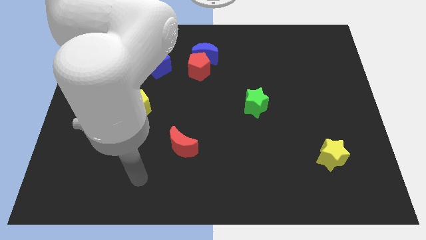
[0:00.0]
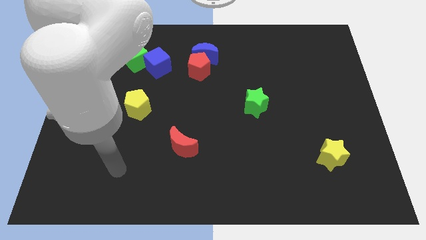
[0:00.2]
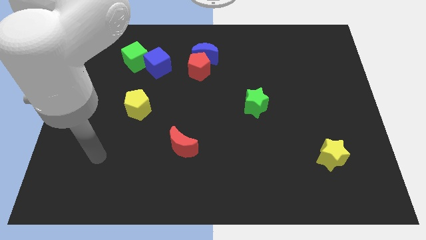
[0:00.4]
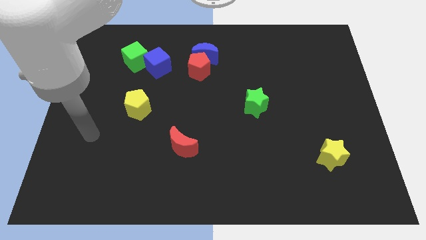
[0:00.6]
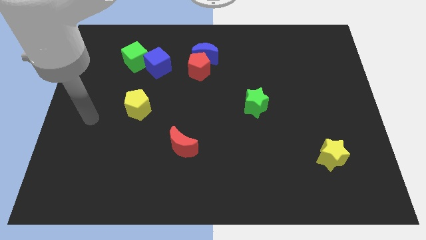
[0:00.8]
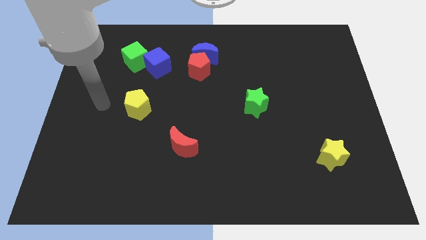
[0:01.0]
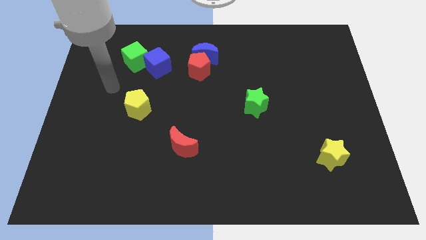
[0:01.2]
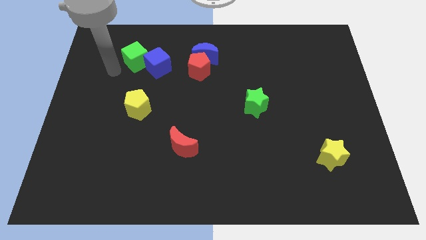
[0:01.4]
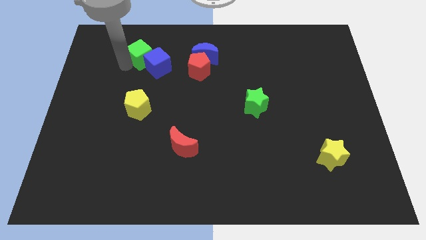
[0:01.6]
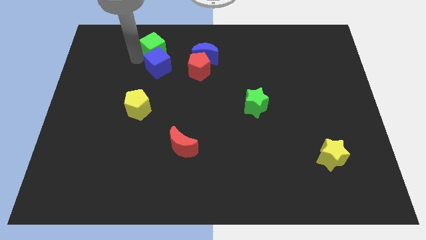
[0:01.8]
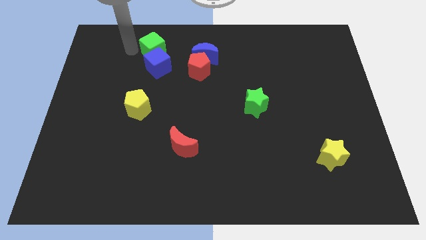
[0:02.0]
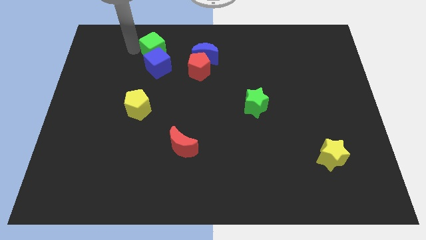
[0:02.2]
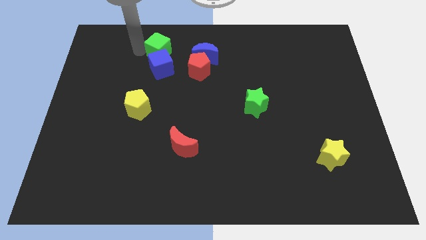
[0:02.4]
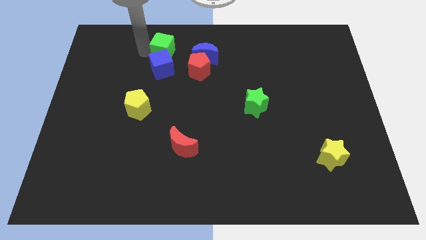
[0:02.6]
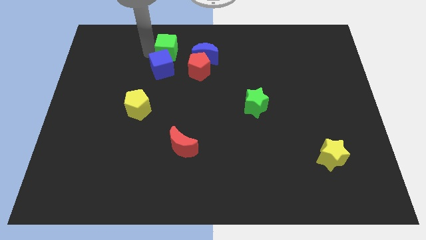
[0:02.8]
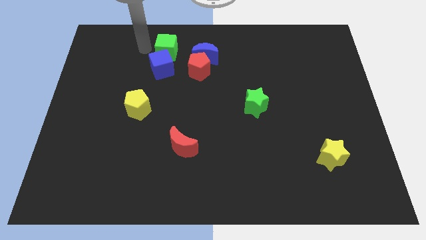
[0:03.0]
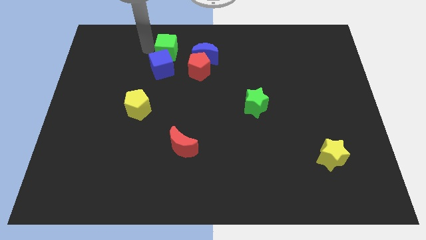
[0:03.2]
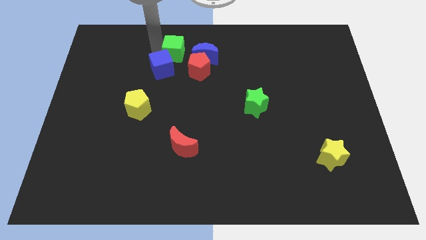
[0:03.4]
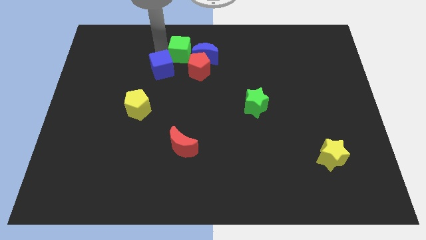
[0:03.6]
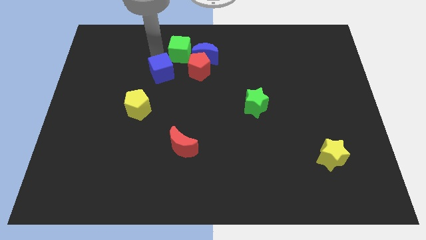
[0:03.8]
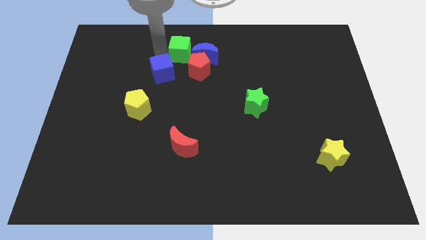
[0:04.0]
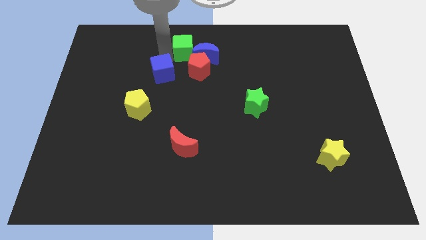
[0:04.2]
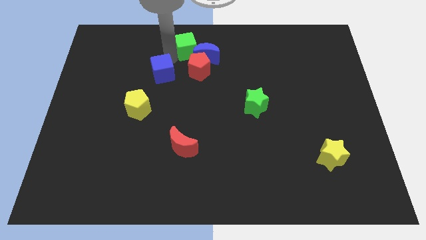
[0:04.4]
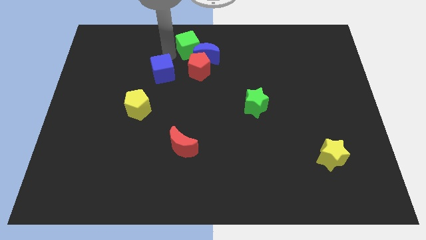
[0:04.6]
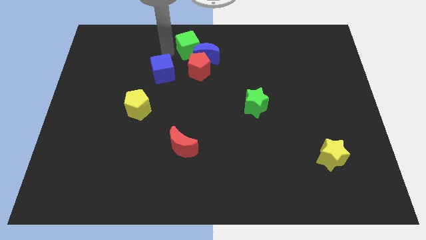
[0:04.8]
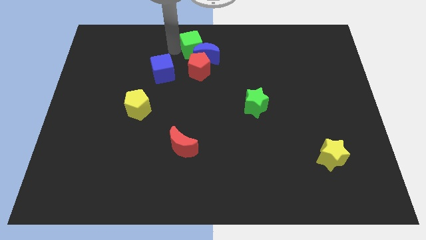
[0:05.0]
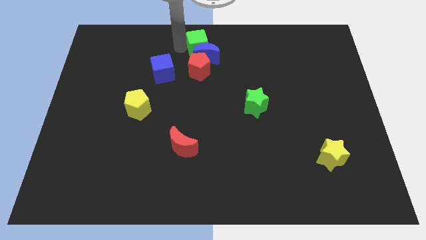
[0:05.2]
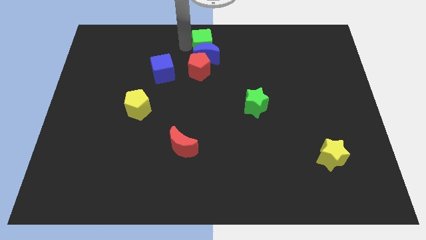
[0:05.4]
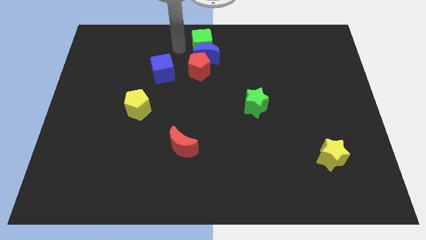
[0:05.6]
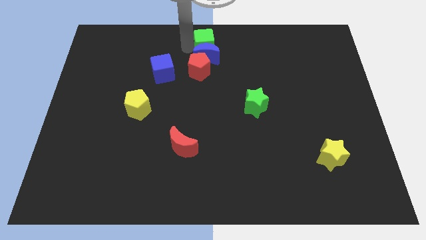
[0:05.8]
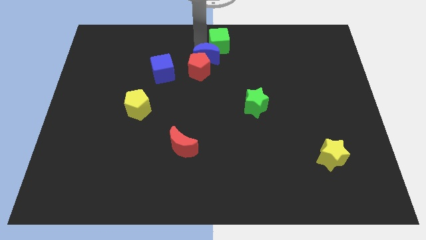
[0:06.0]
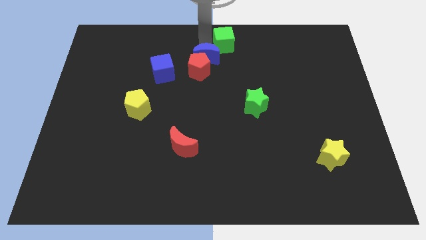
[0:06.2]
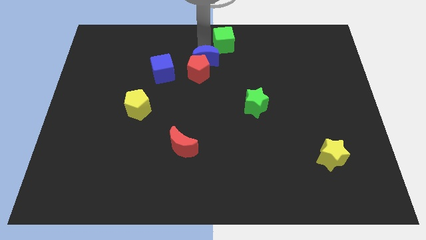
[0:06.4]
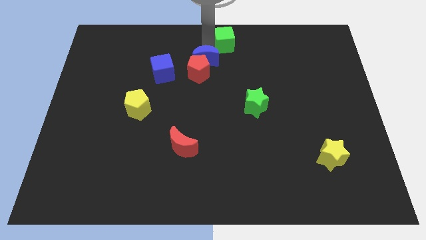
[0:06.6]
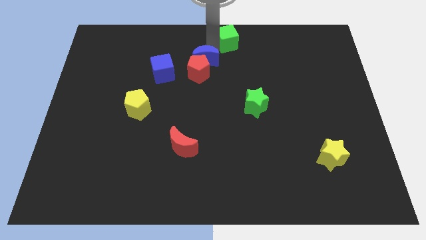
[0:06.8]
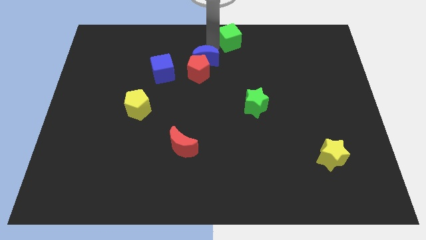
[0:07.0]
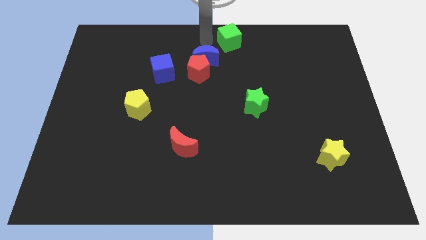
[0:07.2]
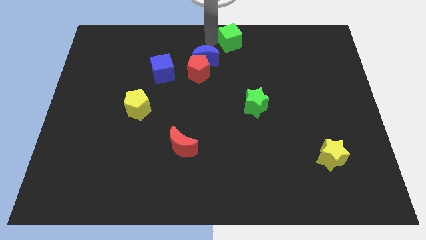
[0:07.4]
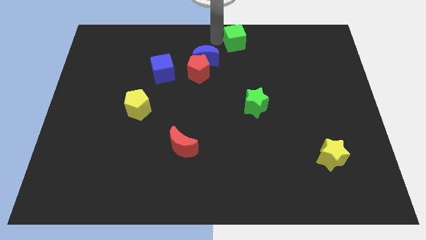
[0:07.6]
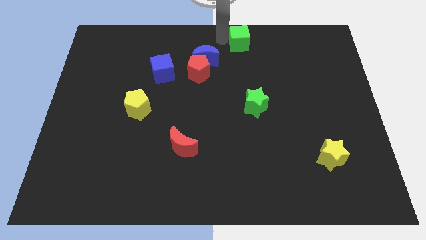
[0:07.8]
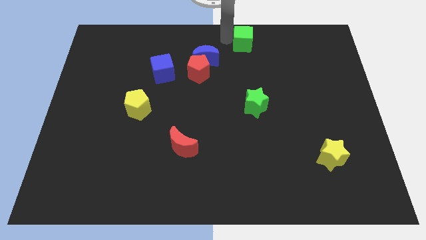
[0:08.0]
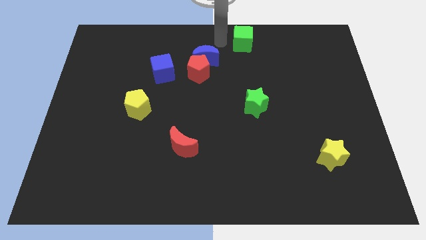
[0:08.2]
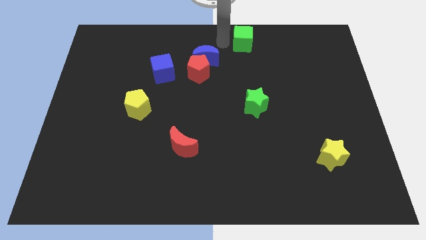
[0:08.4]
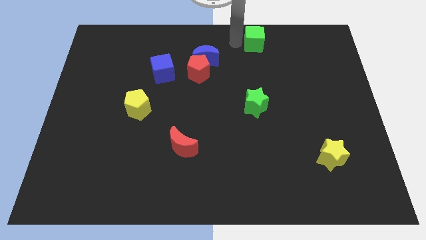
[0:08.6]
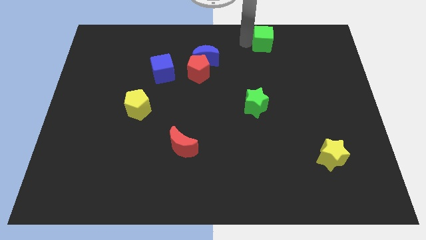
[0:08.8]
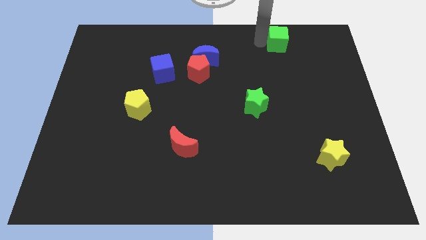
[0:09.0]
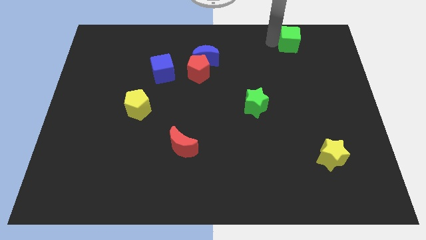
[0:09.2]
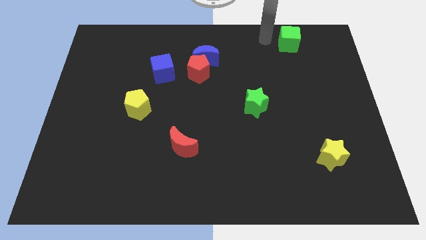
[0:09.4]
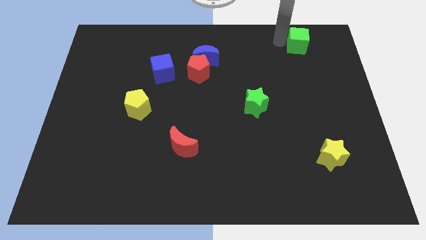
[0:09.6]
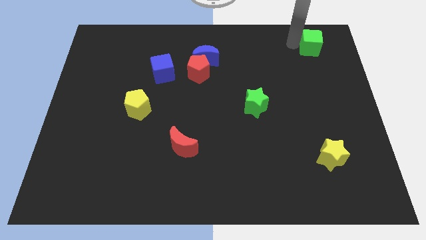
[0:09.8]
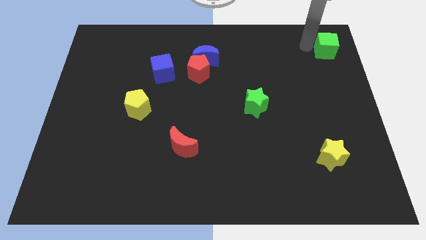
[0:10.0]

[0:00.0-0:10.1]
slide the green cube to the top right corner

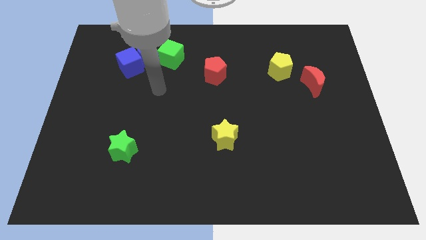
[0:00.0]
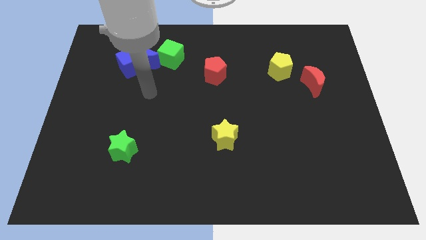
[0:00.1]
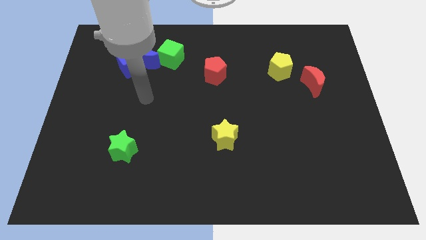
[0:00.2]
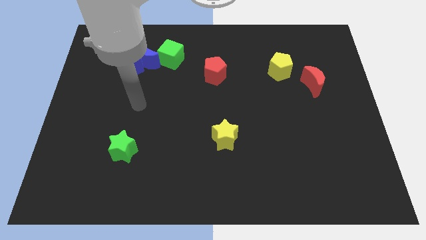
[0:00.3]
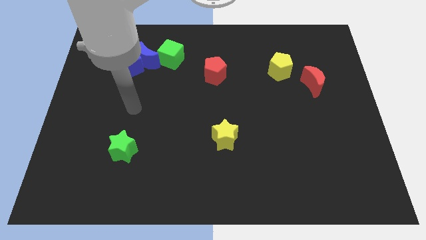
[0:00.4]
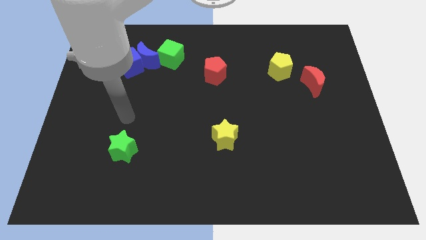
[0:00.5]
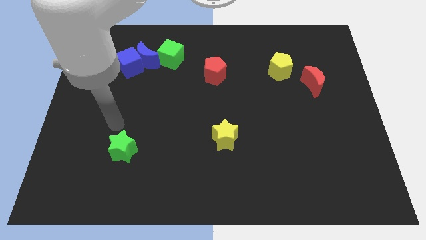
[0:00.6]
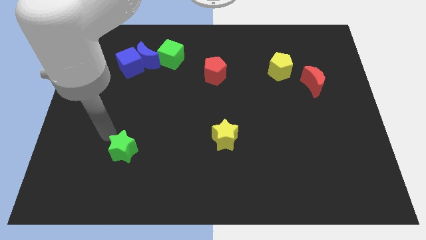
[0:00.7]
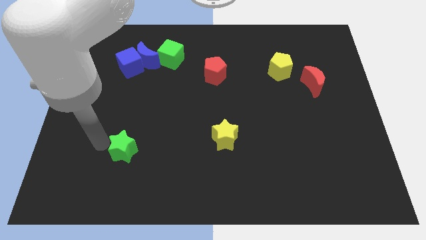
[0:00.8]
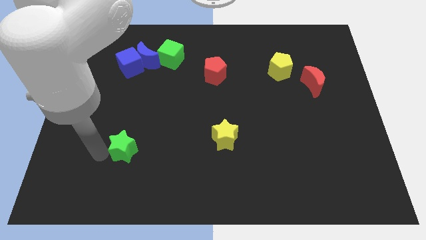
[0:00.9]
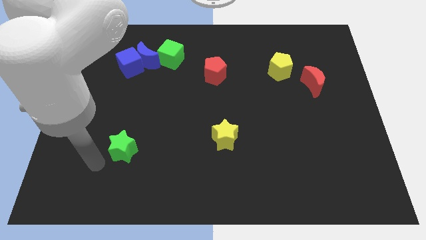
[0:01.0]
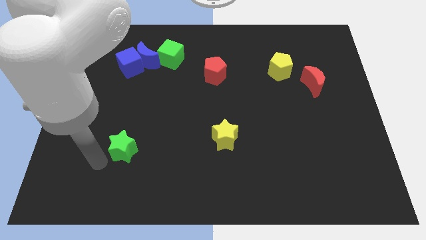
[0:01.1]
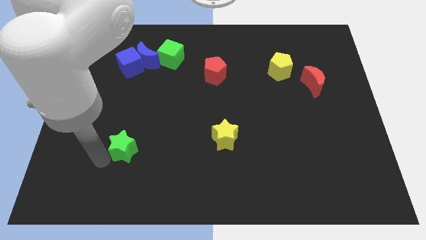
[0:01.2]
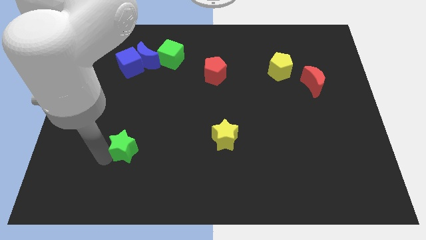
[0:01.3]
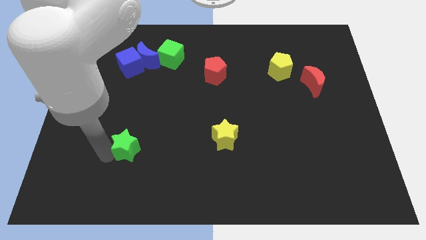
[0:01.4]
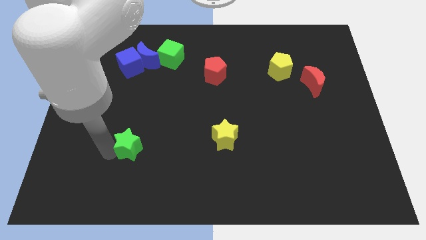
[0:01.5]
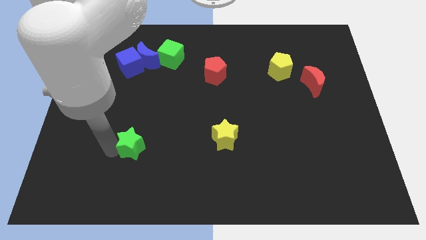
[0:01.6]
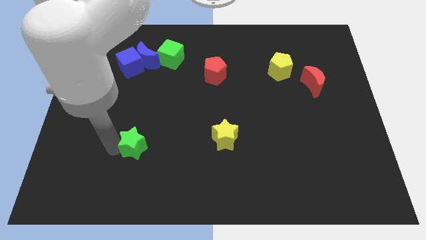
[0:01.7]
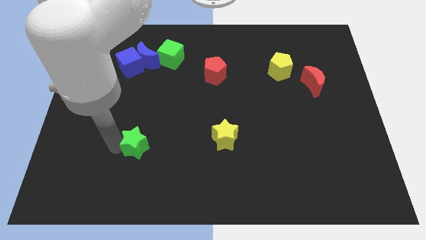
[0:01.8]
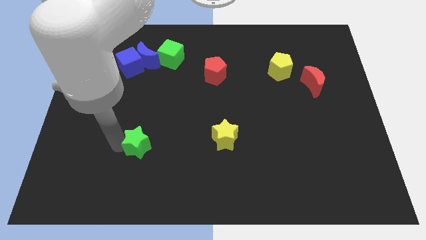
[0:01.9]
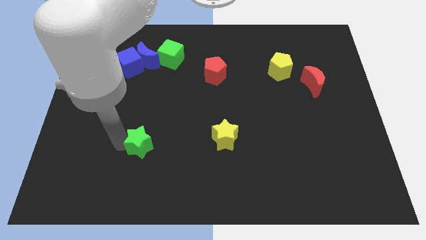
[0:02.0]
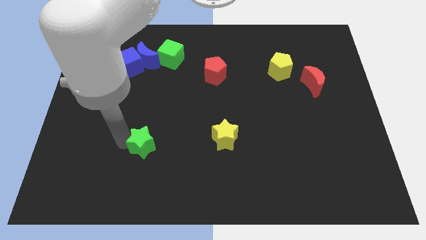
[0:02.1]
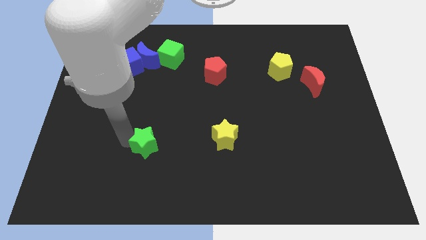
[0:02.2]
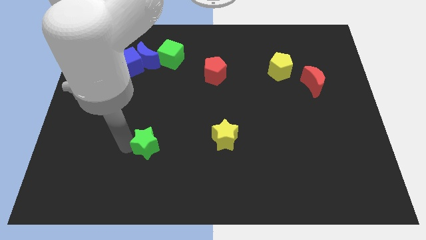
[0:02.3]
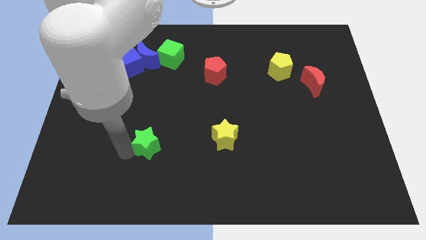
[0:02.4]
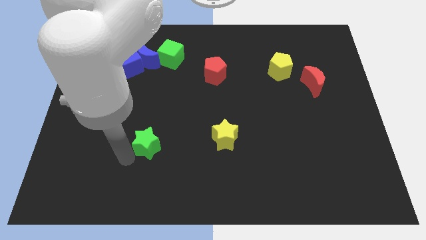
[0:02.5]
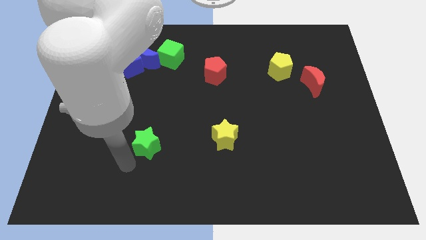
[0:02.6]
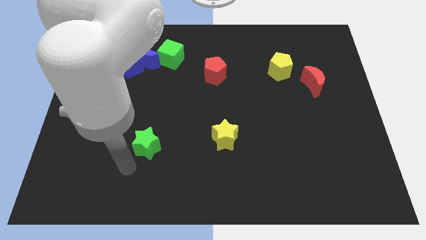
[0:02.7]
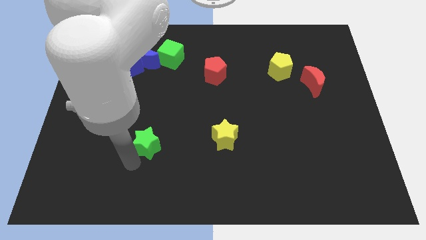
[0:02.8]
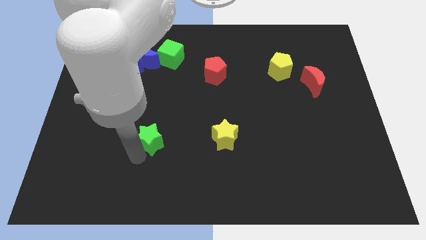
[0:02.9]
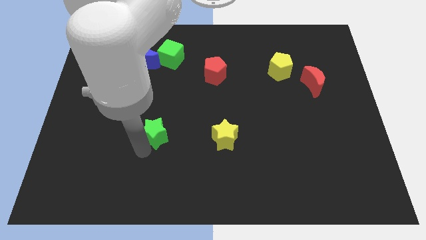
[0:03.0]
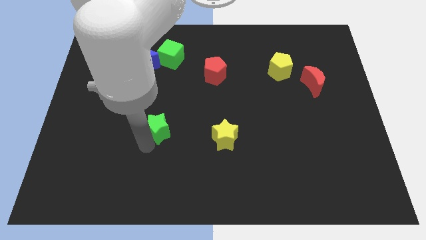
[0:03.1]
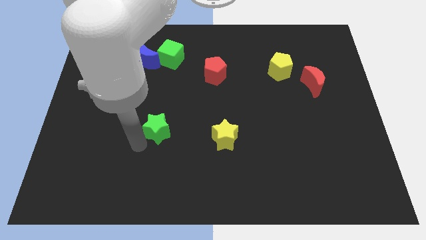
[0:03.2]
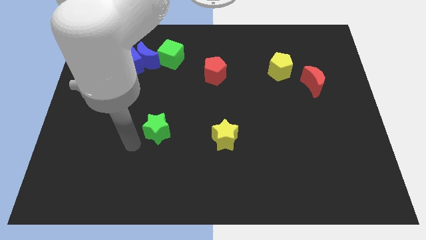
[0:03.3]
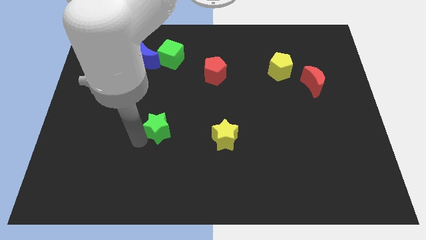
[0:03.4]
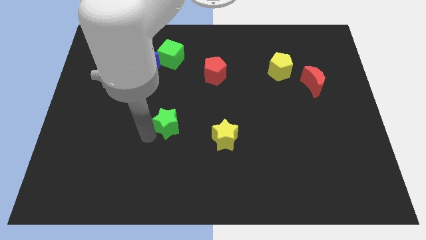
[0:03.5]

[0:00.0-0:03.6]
move the green star to the middle of the board
